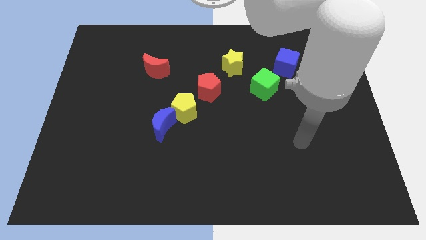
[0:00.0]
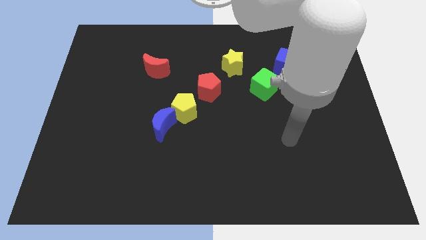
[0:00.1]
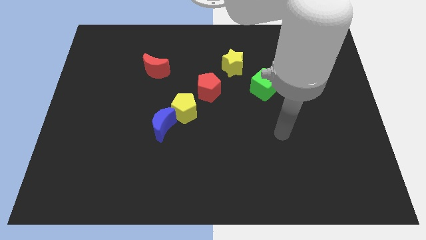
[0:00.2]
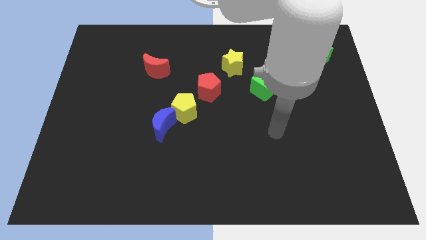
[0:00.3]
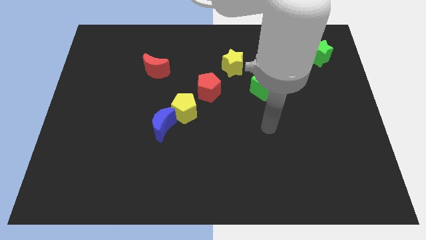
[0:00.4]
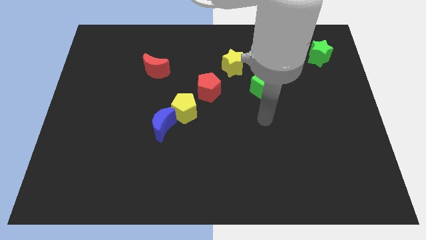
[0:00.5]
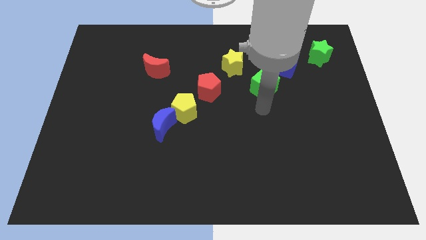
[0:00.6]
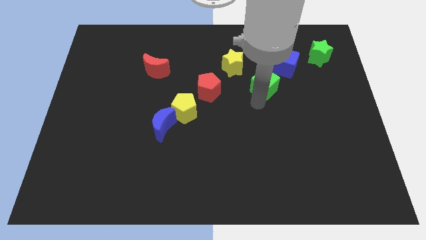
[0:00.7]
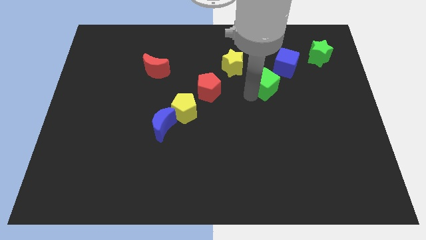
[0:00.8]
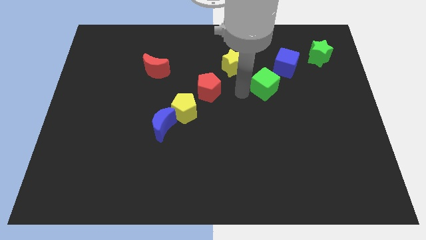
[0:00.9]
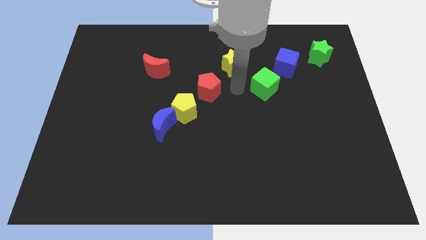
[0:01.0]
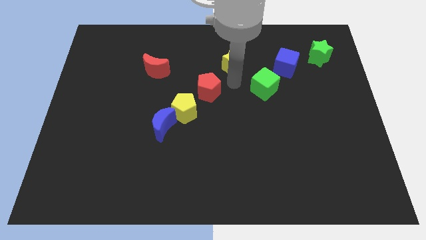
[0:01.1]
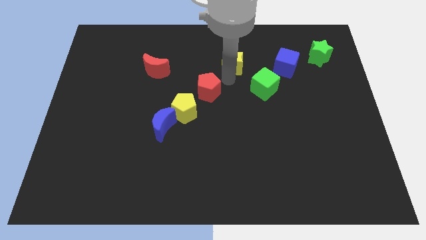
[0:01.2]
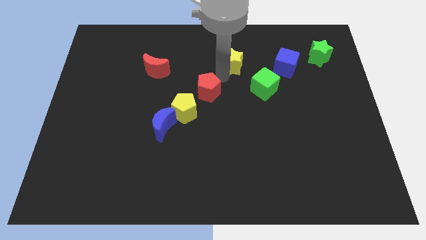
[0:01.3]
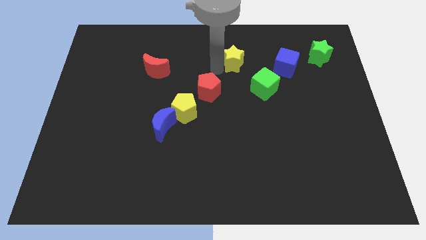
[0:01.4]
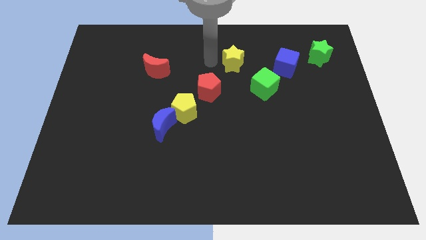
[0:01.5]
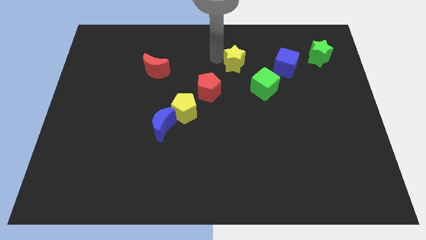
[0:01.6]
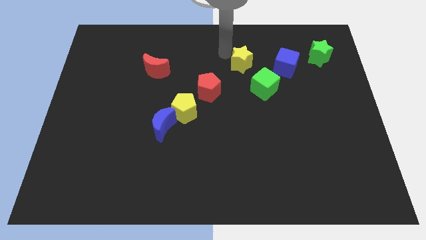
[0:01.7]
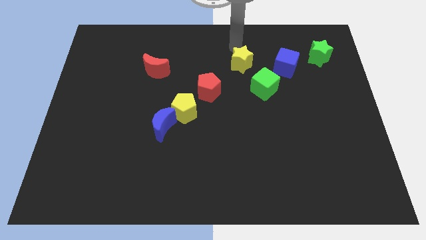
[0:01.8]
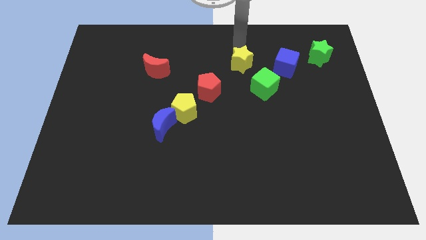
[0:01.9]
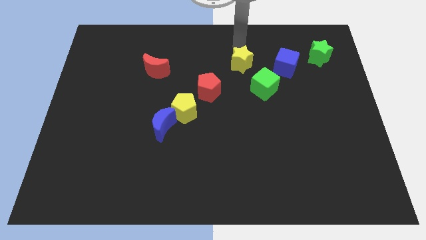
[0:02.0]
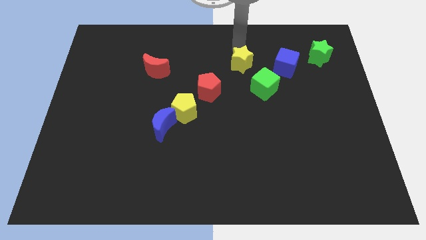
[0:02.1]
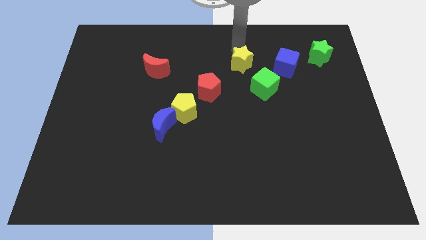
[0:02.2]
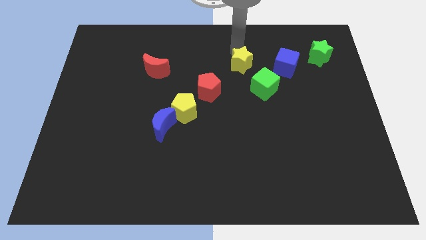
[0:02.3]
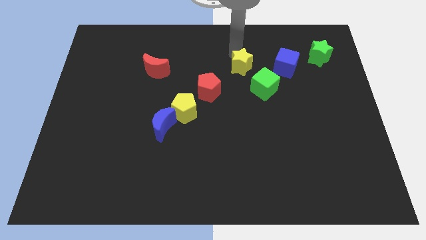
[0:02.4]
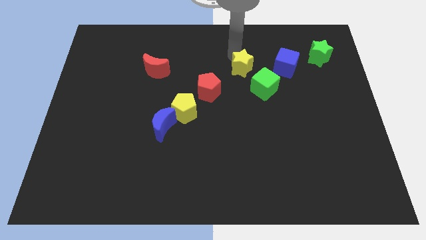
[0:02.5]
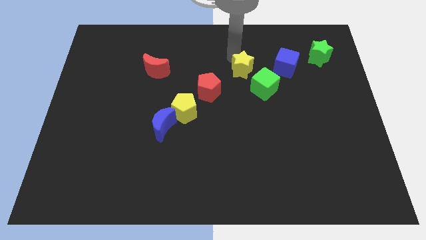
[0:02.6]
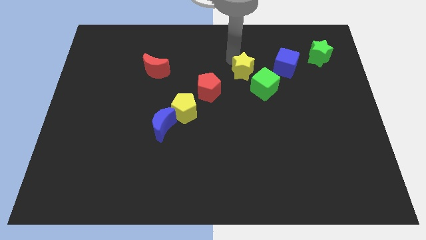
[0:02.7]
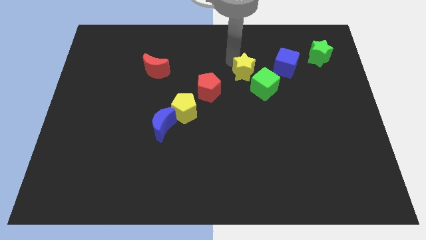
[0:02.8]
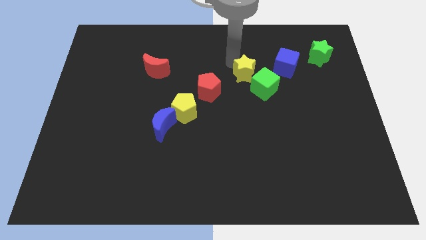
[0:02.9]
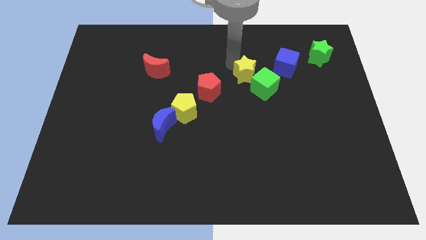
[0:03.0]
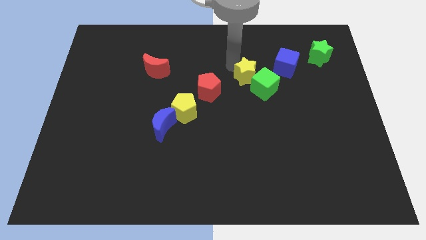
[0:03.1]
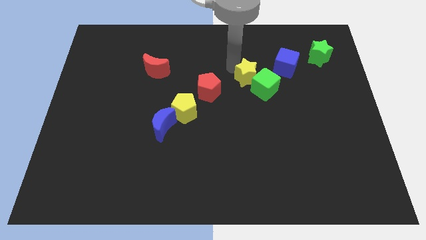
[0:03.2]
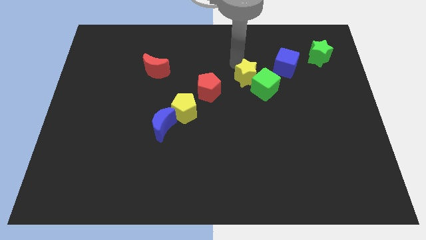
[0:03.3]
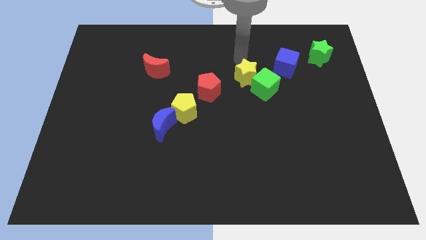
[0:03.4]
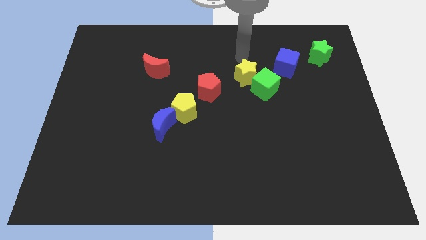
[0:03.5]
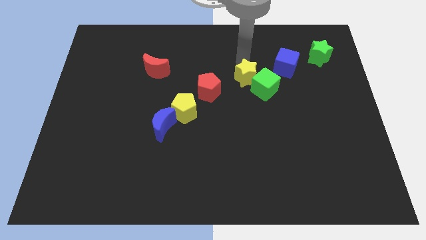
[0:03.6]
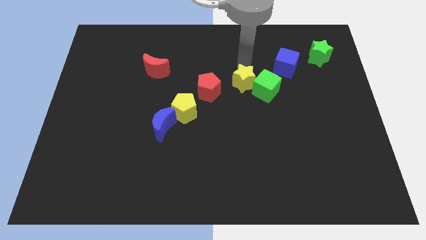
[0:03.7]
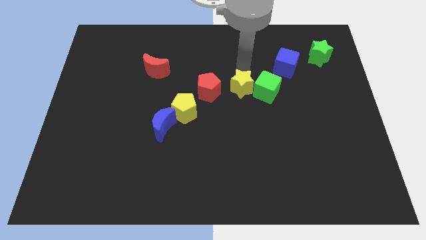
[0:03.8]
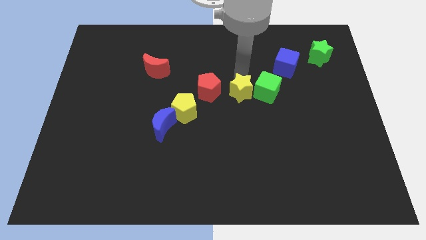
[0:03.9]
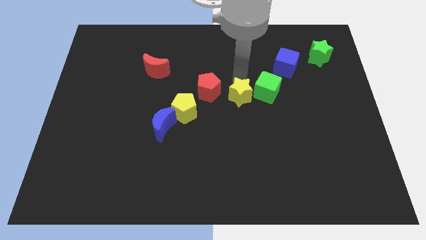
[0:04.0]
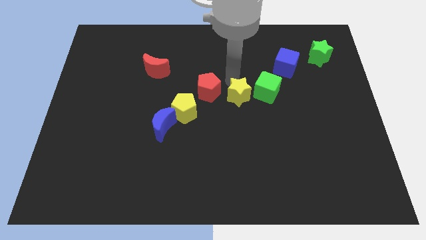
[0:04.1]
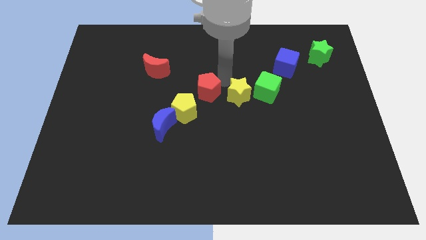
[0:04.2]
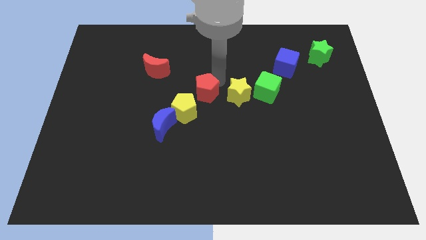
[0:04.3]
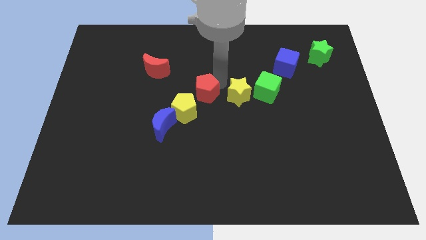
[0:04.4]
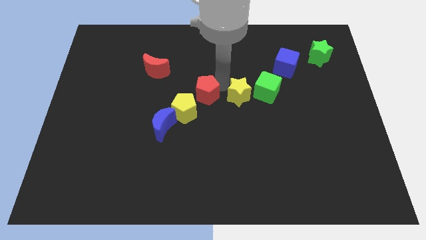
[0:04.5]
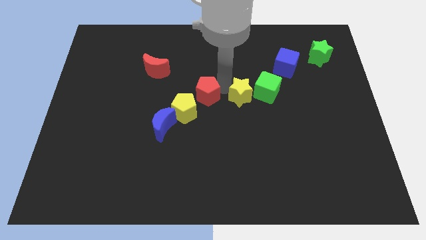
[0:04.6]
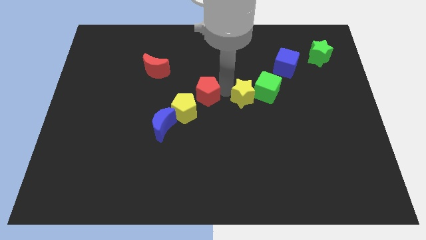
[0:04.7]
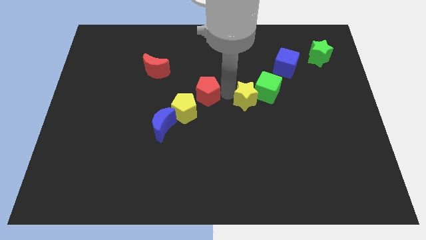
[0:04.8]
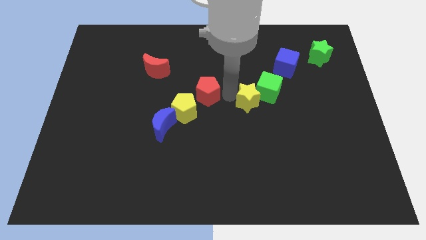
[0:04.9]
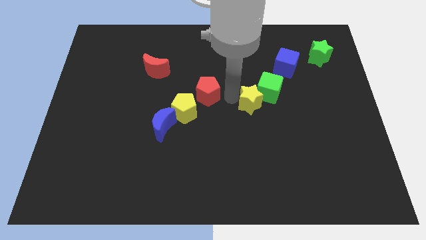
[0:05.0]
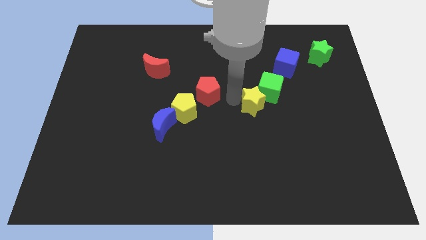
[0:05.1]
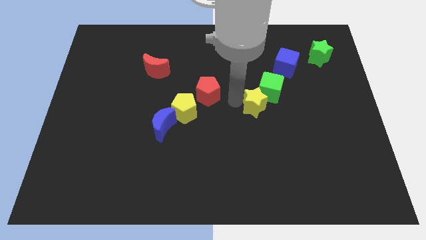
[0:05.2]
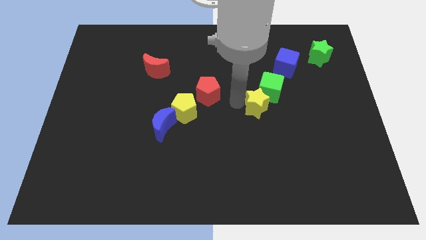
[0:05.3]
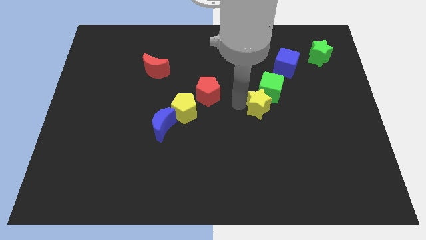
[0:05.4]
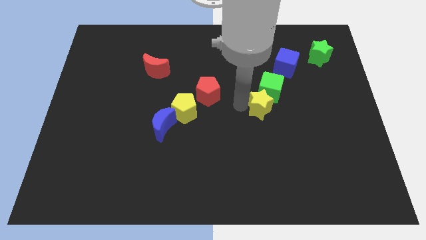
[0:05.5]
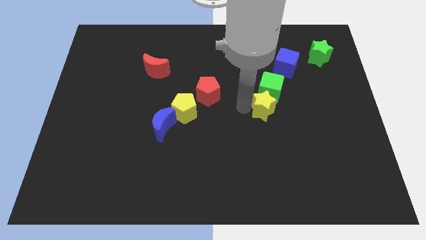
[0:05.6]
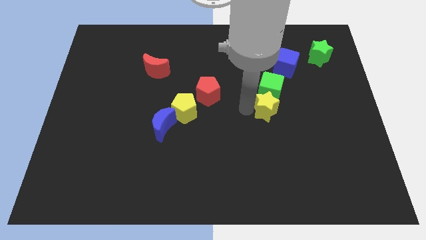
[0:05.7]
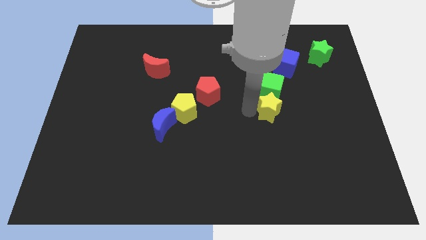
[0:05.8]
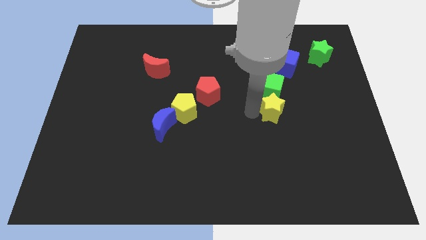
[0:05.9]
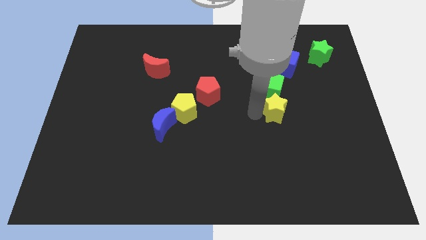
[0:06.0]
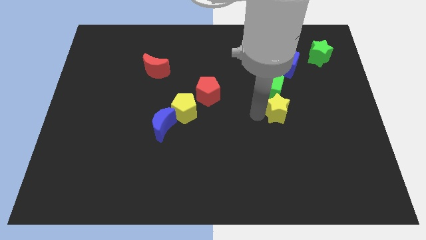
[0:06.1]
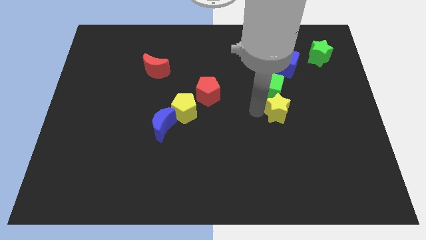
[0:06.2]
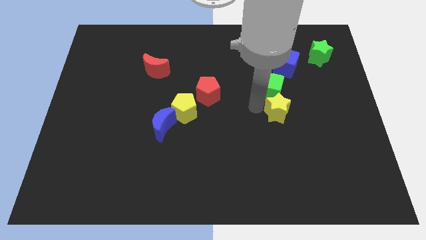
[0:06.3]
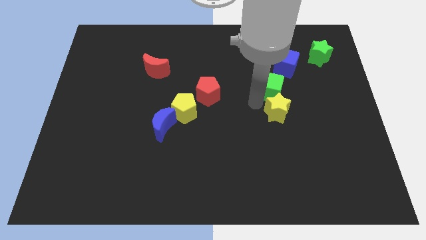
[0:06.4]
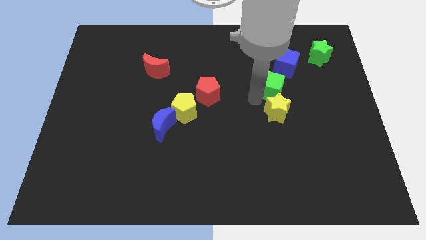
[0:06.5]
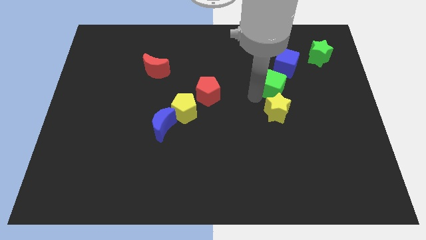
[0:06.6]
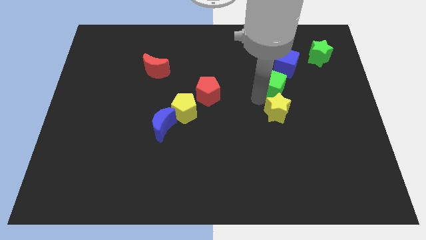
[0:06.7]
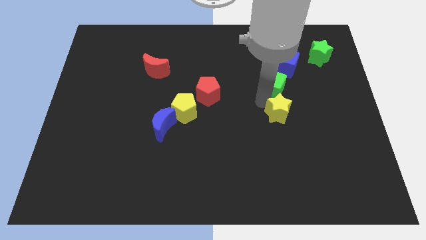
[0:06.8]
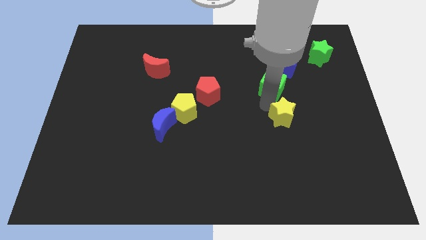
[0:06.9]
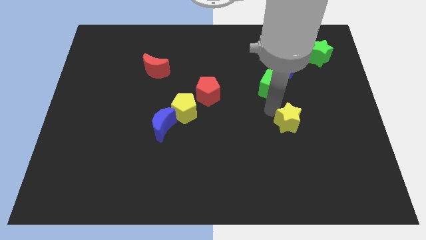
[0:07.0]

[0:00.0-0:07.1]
push the yellow star diagonally downwards and right

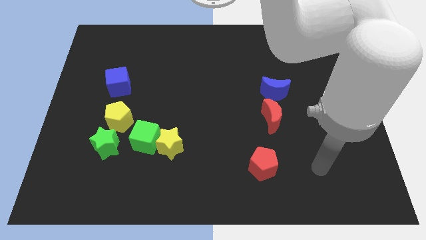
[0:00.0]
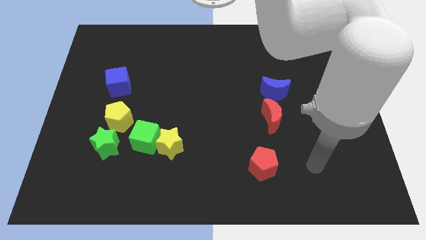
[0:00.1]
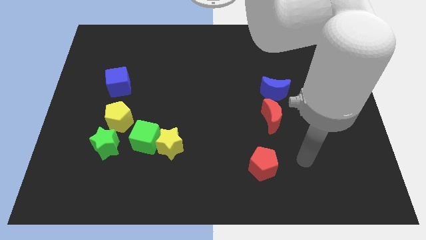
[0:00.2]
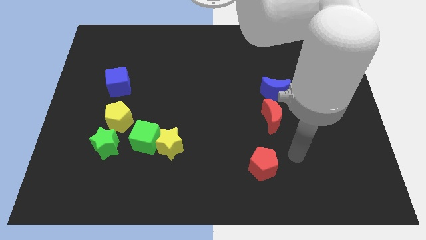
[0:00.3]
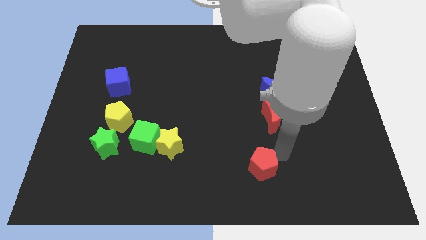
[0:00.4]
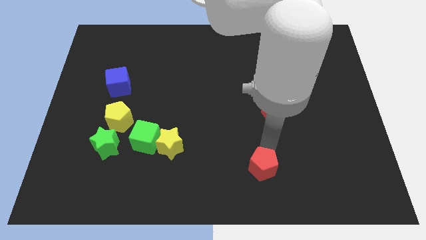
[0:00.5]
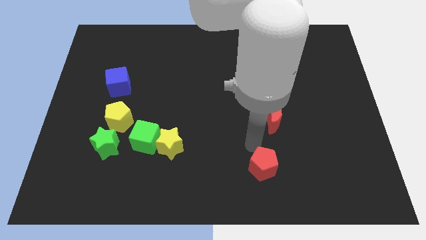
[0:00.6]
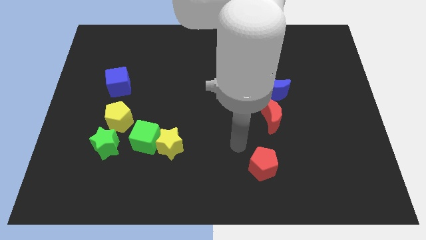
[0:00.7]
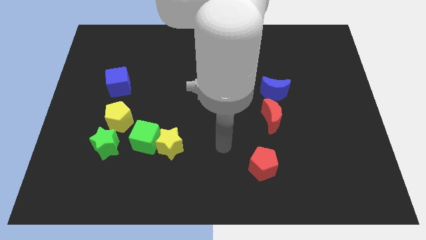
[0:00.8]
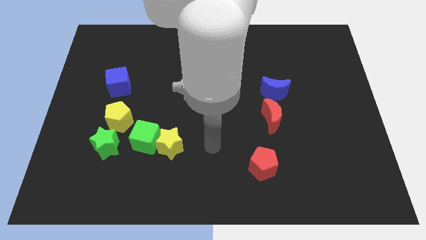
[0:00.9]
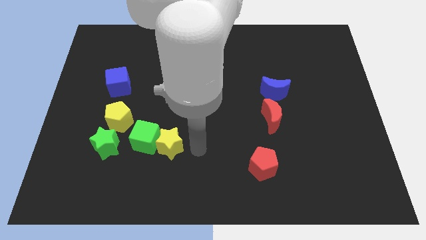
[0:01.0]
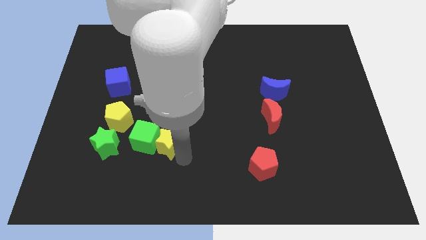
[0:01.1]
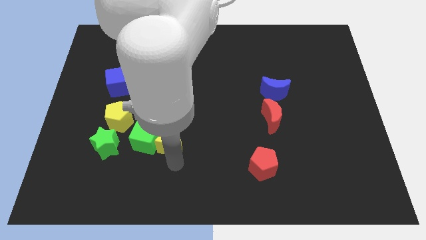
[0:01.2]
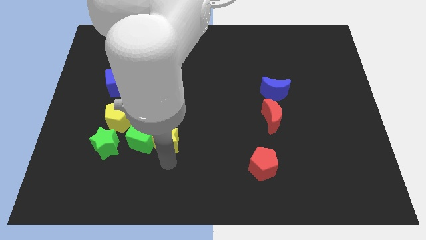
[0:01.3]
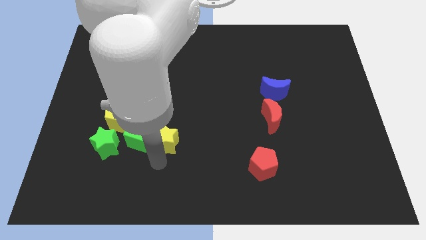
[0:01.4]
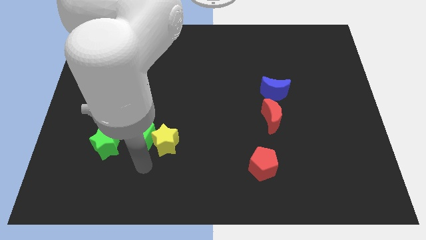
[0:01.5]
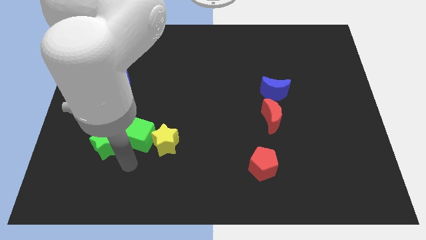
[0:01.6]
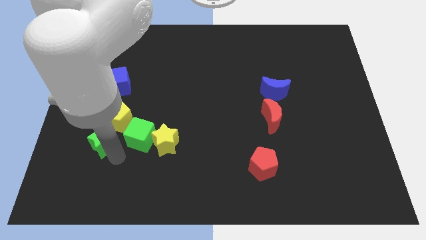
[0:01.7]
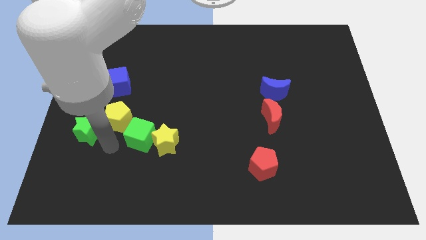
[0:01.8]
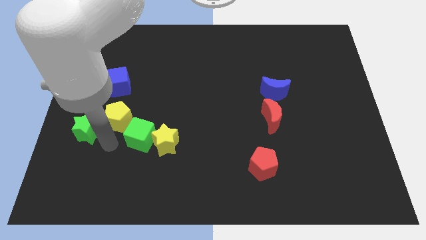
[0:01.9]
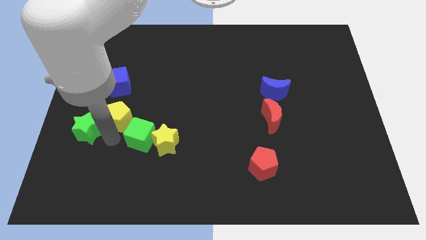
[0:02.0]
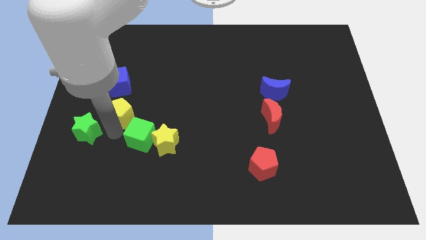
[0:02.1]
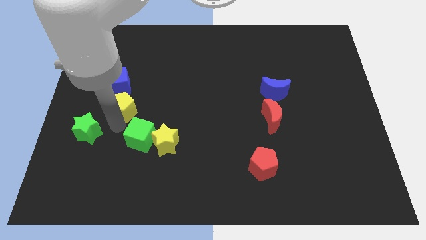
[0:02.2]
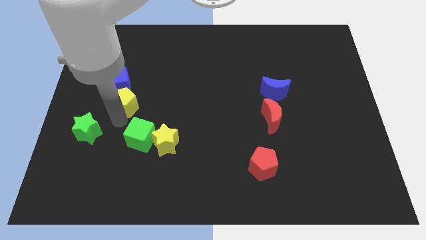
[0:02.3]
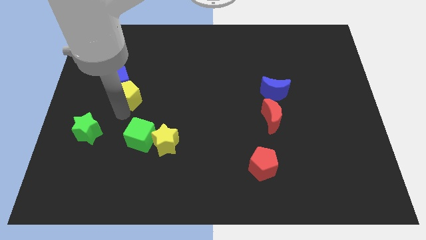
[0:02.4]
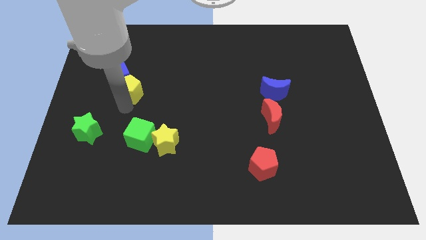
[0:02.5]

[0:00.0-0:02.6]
slide the yellow pentagon a bit upwards
